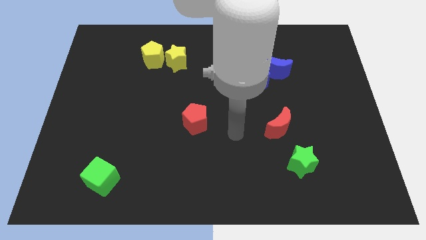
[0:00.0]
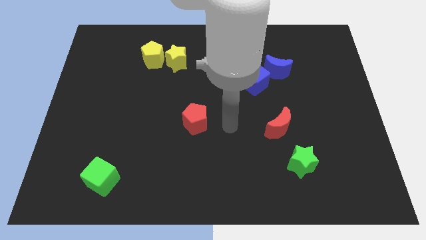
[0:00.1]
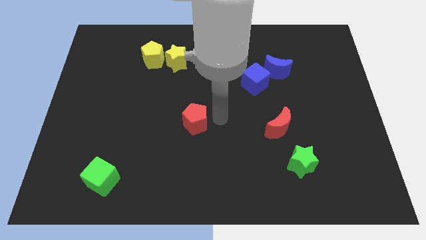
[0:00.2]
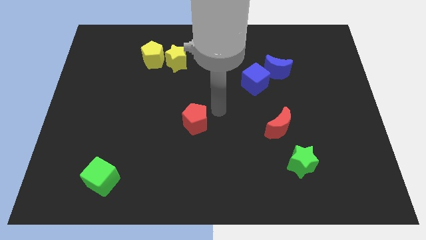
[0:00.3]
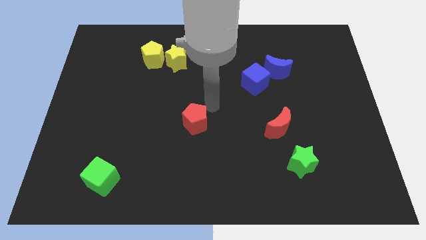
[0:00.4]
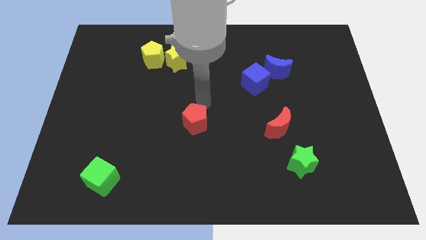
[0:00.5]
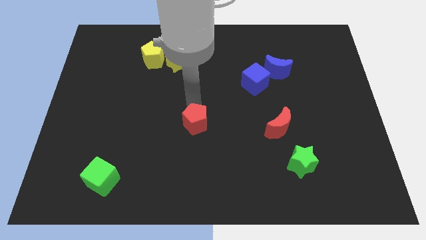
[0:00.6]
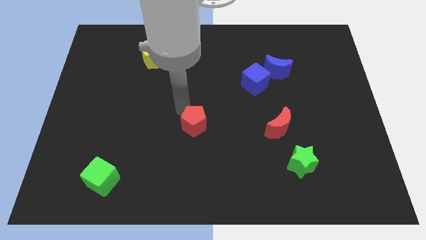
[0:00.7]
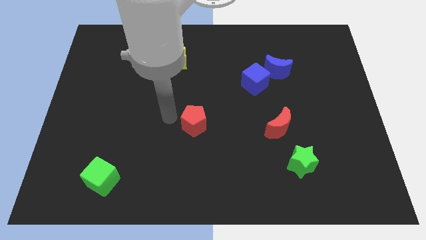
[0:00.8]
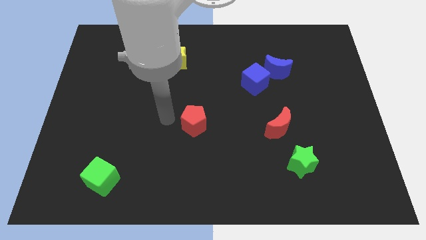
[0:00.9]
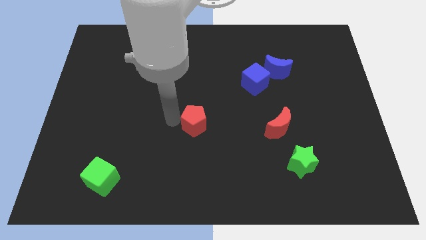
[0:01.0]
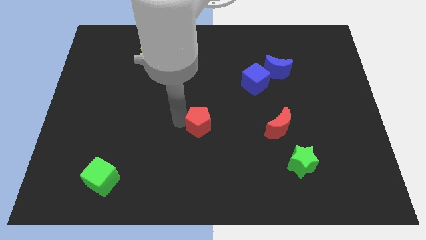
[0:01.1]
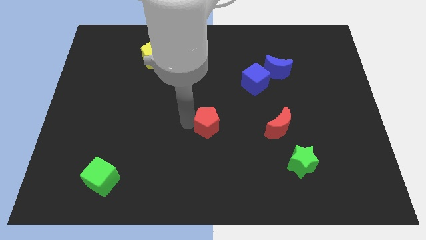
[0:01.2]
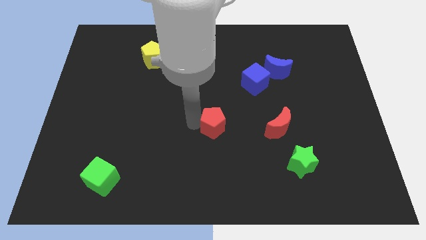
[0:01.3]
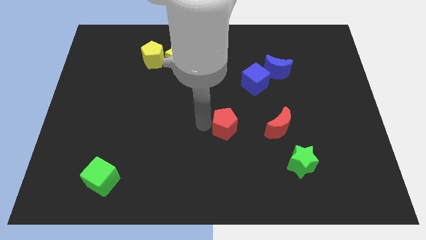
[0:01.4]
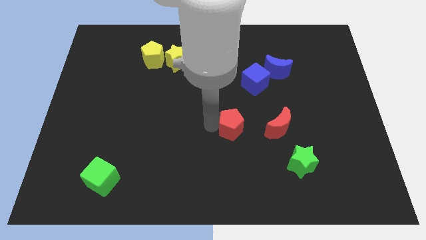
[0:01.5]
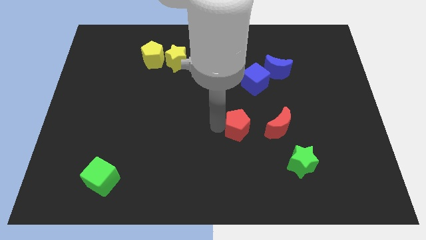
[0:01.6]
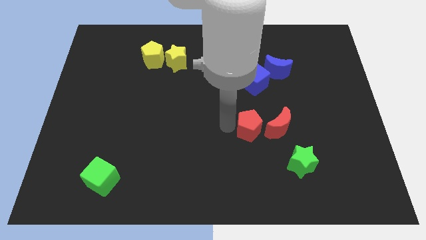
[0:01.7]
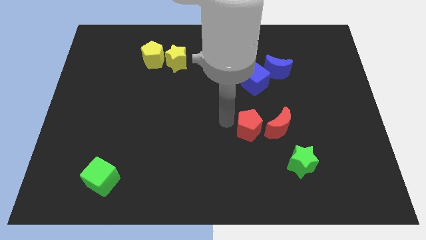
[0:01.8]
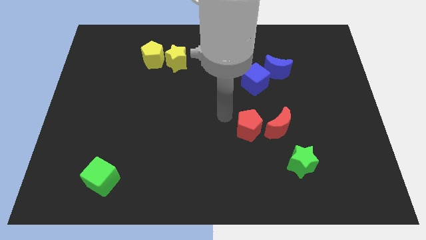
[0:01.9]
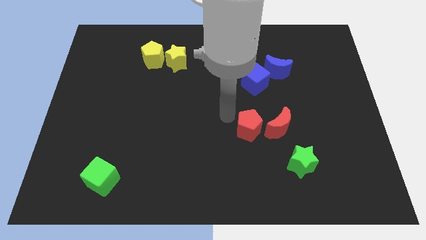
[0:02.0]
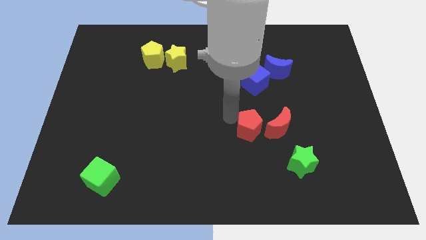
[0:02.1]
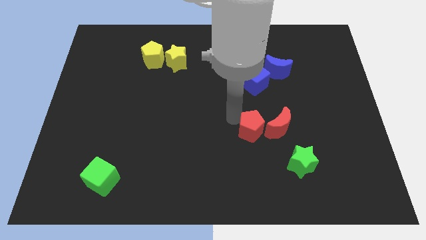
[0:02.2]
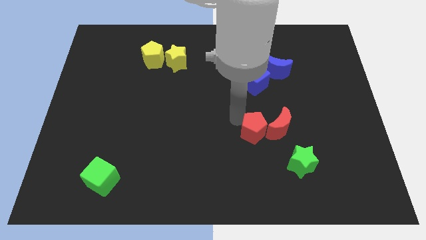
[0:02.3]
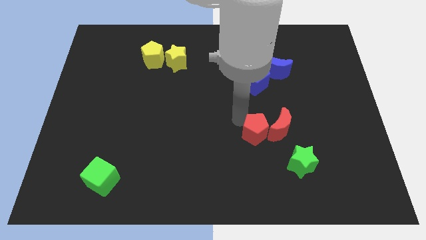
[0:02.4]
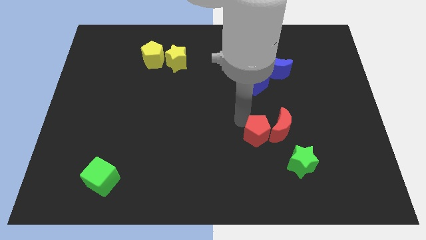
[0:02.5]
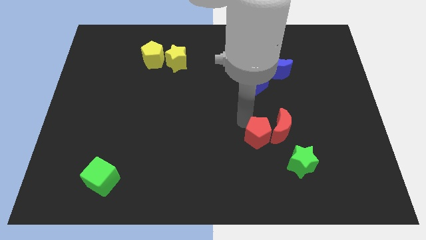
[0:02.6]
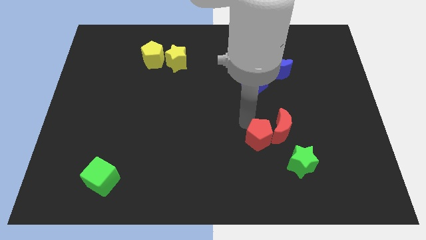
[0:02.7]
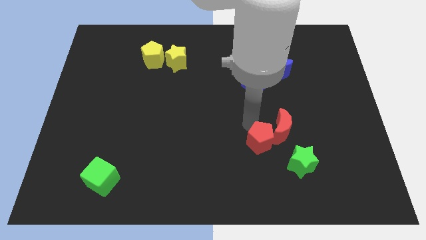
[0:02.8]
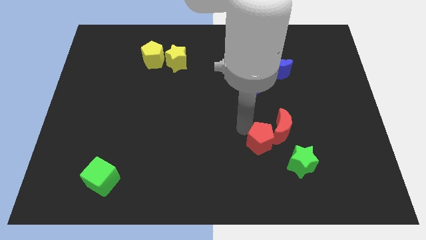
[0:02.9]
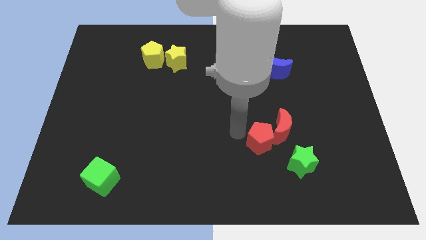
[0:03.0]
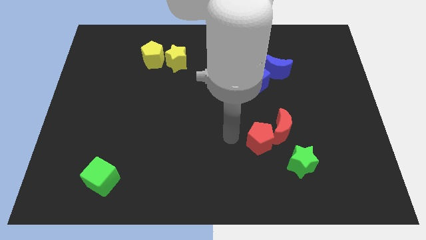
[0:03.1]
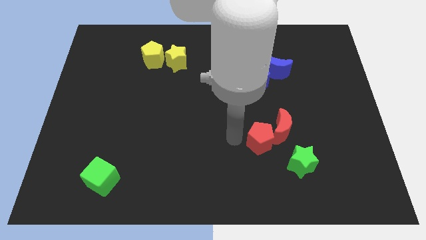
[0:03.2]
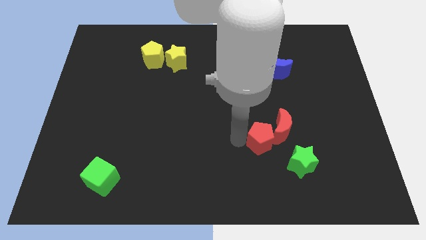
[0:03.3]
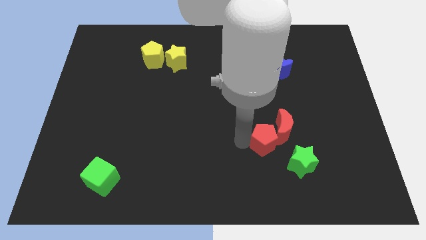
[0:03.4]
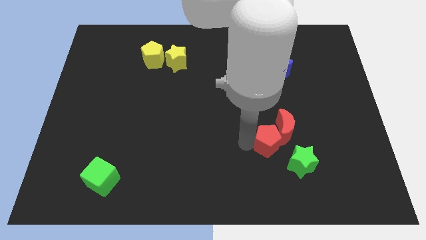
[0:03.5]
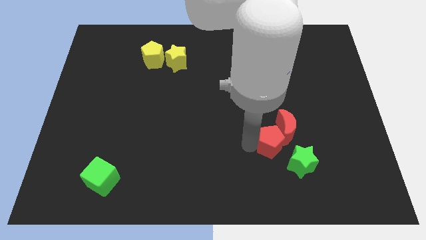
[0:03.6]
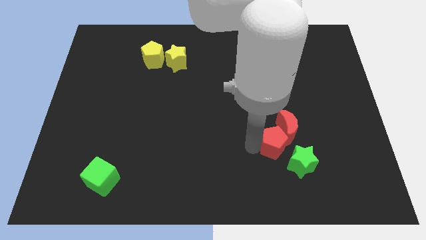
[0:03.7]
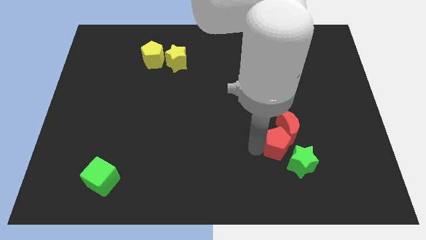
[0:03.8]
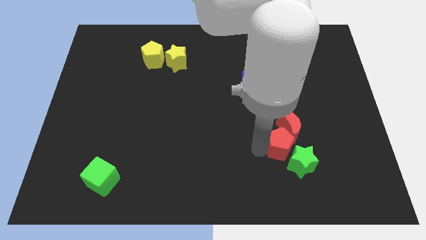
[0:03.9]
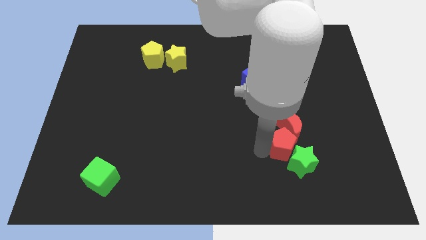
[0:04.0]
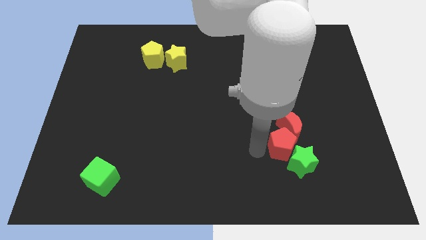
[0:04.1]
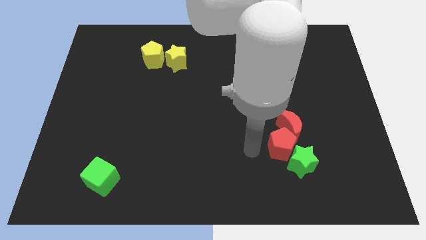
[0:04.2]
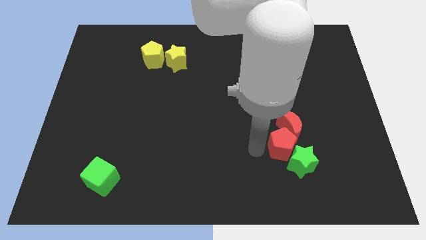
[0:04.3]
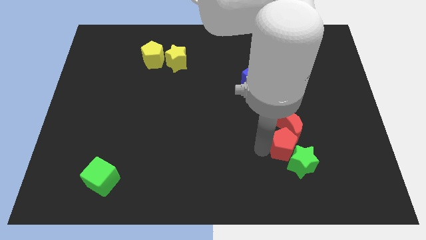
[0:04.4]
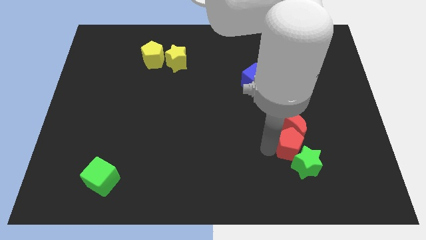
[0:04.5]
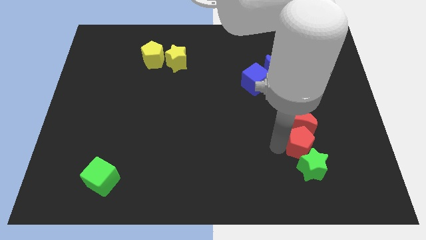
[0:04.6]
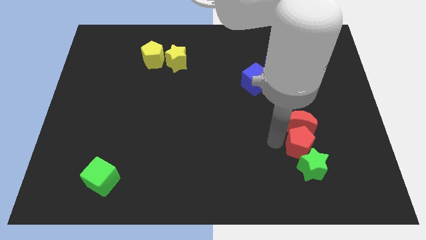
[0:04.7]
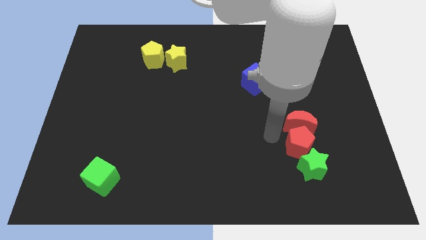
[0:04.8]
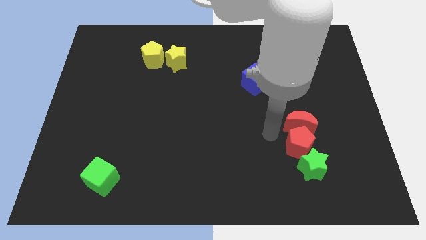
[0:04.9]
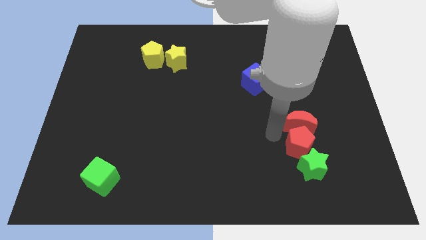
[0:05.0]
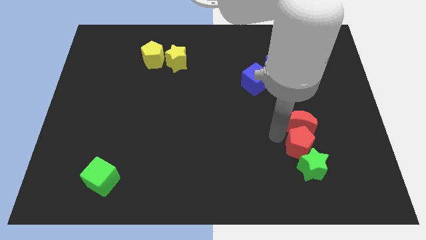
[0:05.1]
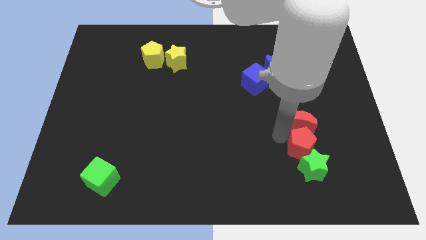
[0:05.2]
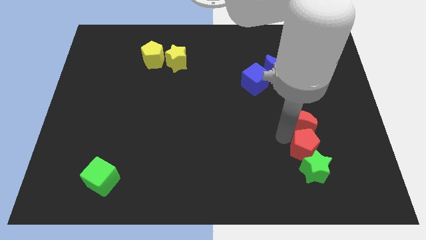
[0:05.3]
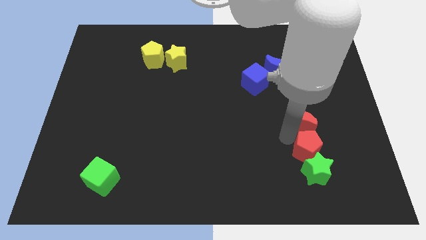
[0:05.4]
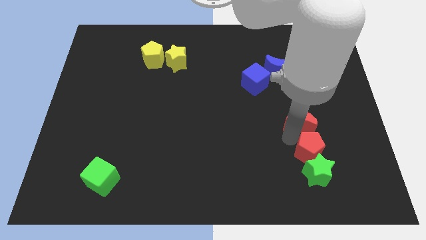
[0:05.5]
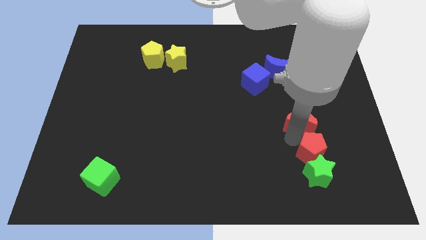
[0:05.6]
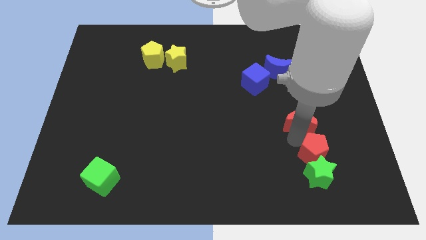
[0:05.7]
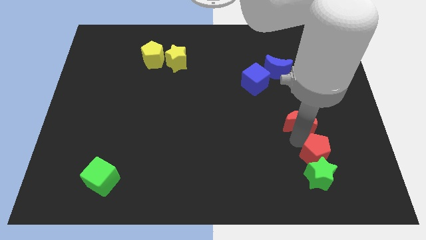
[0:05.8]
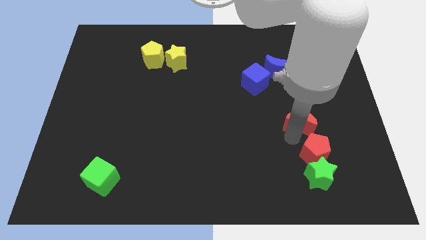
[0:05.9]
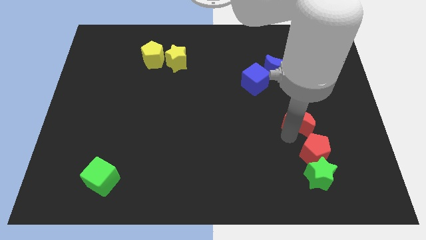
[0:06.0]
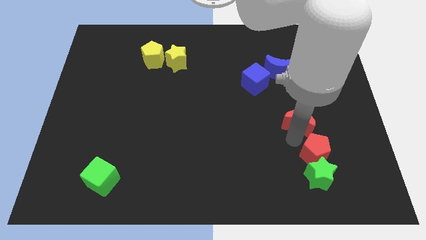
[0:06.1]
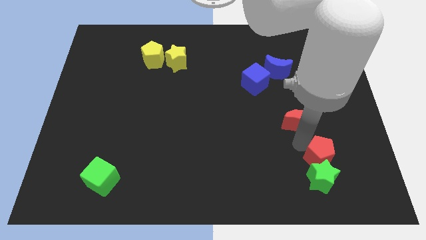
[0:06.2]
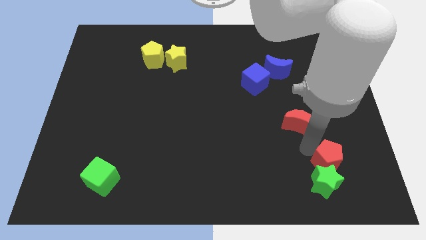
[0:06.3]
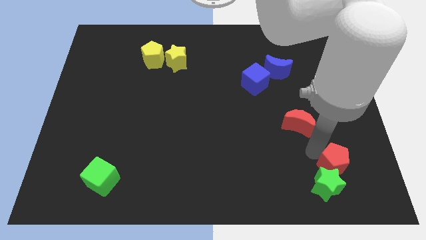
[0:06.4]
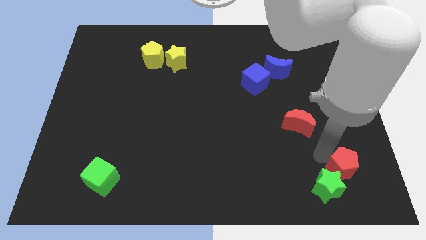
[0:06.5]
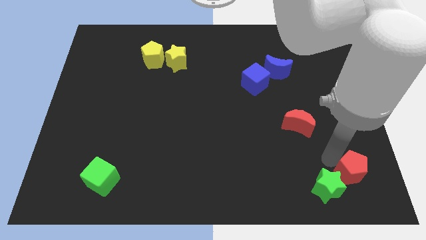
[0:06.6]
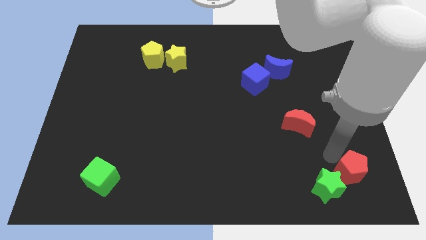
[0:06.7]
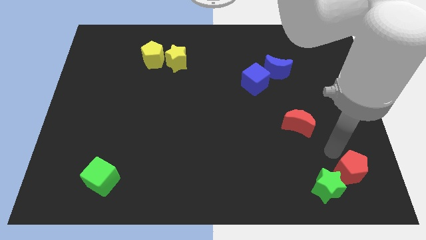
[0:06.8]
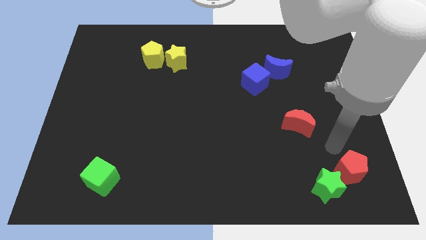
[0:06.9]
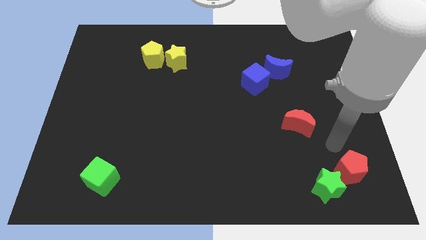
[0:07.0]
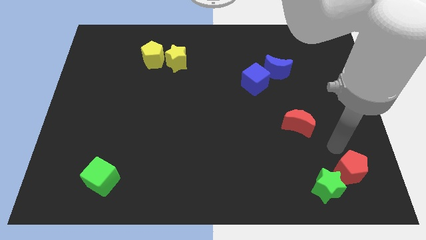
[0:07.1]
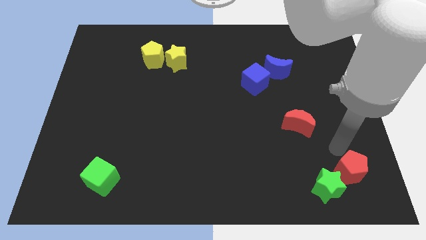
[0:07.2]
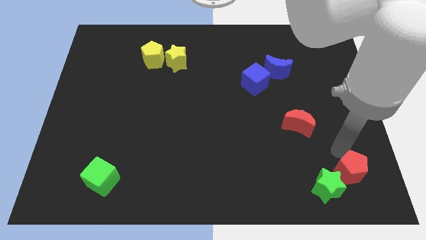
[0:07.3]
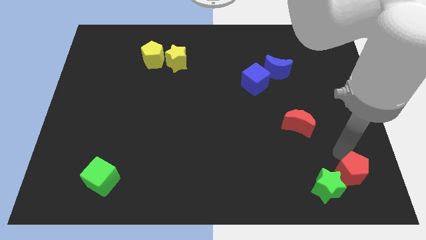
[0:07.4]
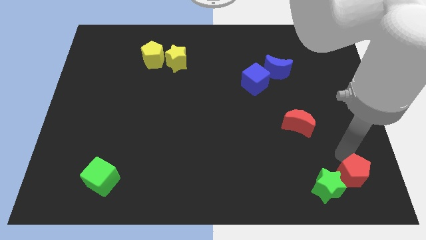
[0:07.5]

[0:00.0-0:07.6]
move the red pentagon to the bottom right
